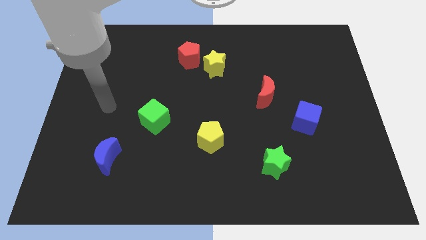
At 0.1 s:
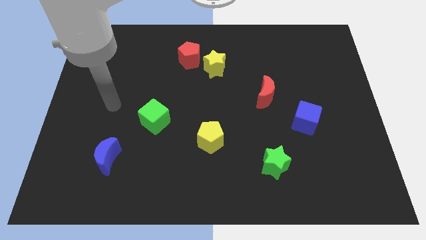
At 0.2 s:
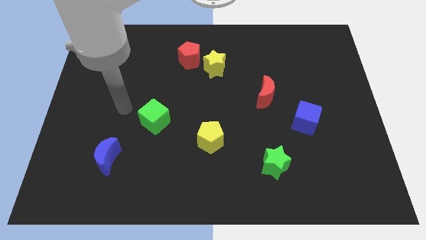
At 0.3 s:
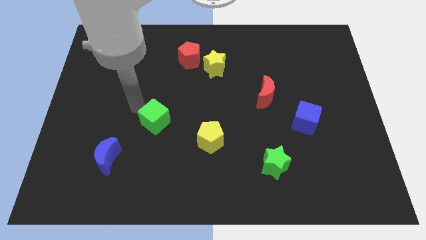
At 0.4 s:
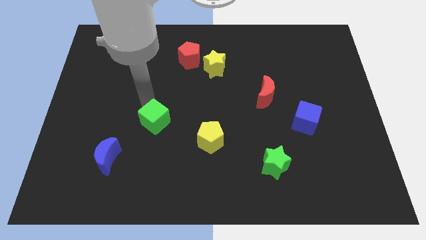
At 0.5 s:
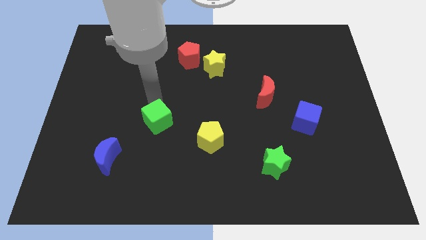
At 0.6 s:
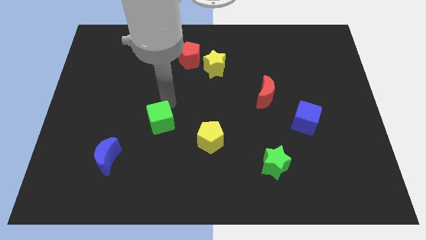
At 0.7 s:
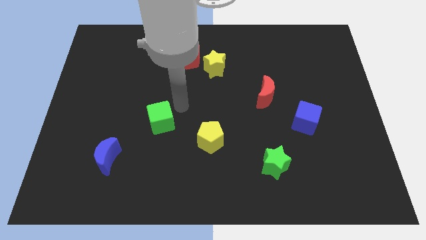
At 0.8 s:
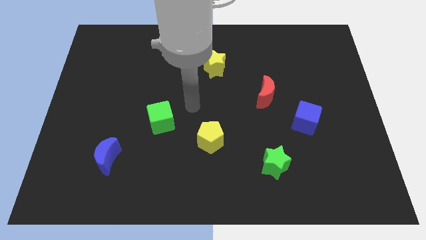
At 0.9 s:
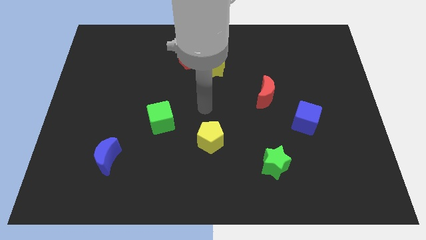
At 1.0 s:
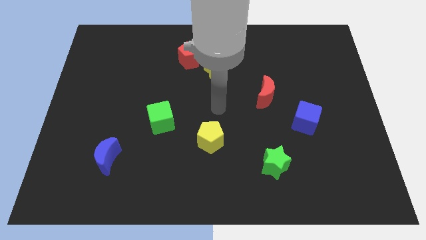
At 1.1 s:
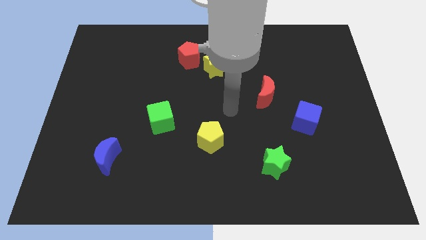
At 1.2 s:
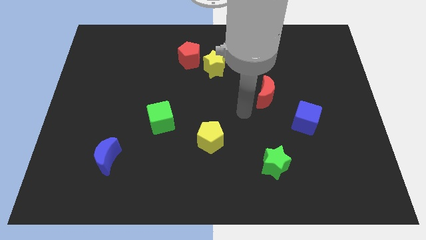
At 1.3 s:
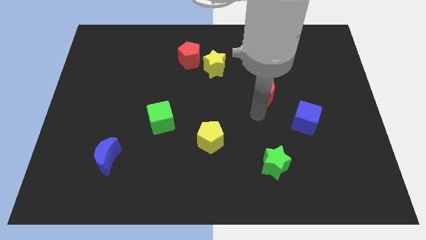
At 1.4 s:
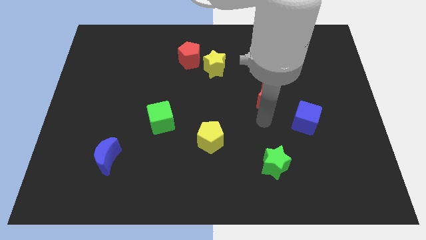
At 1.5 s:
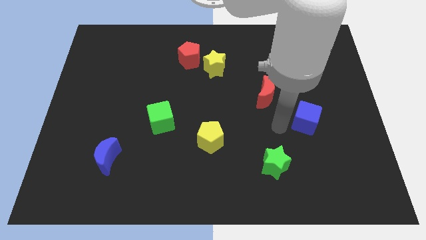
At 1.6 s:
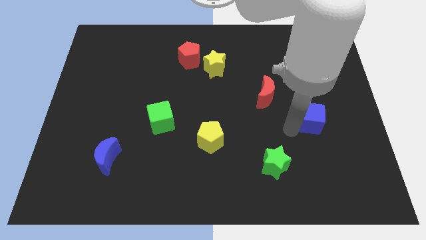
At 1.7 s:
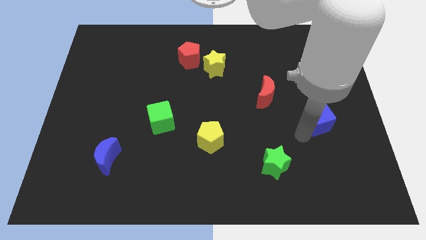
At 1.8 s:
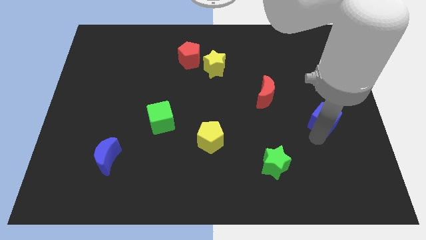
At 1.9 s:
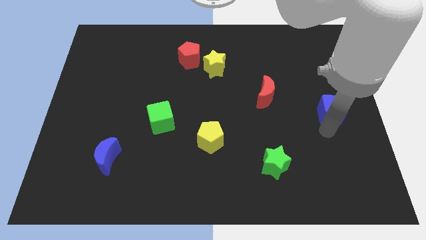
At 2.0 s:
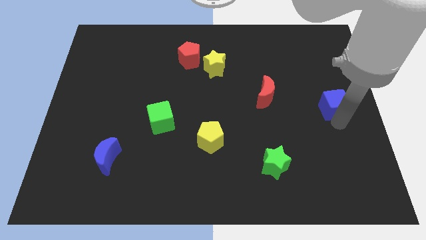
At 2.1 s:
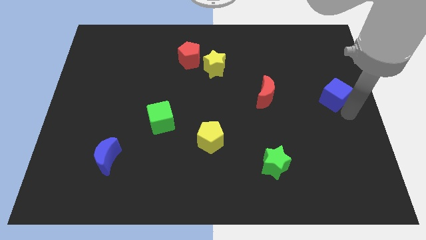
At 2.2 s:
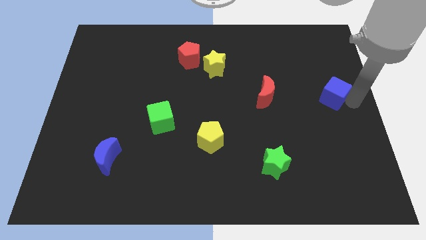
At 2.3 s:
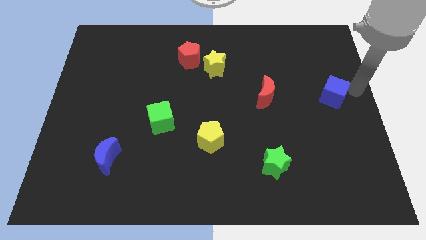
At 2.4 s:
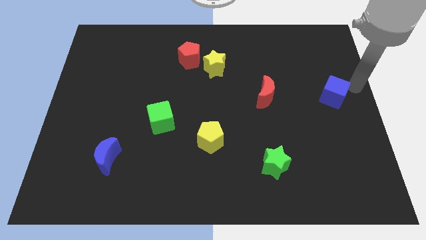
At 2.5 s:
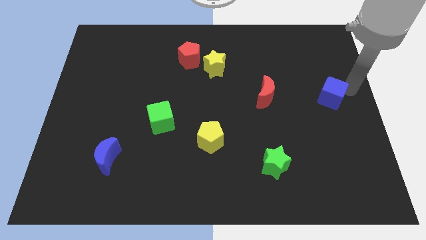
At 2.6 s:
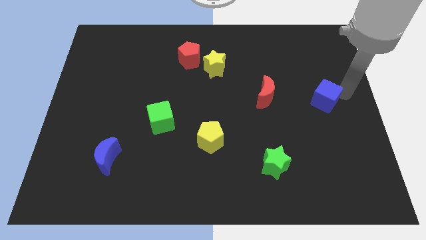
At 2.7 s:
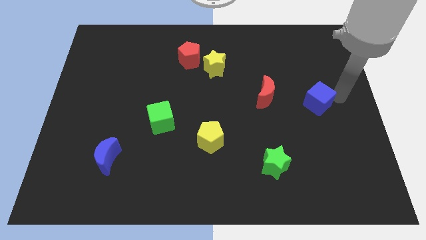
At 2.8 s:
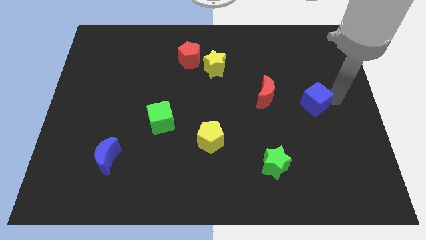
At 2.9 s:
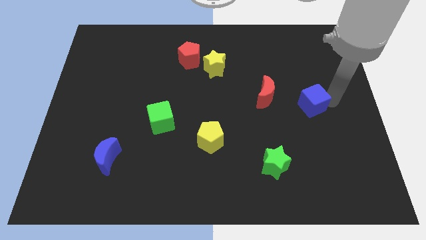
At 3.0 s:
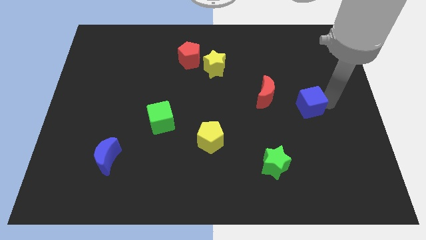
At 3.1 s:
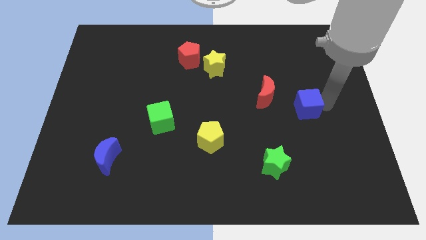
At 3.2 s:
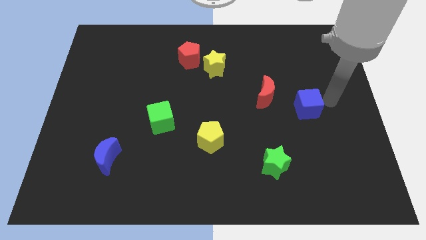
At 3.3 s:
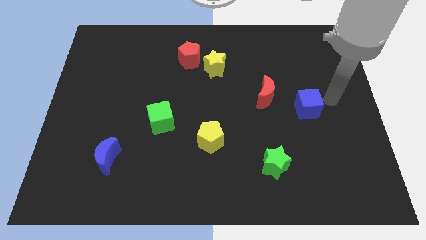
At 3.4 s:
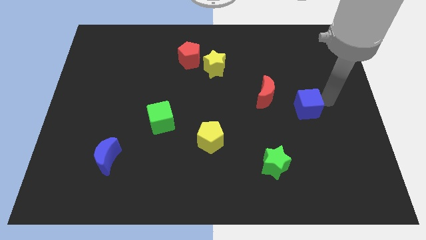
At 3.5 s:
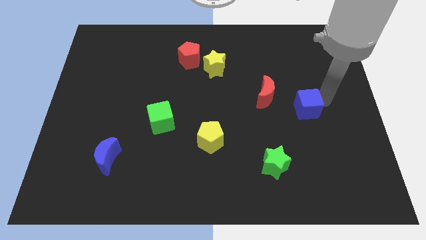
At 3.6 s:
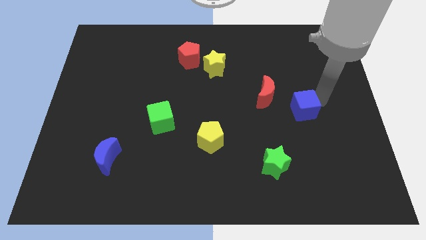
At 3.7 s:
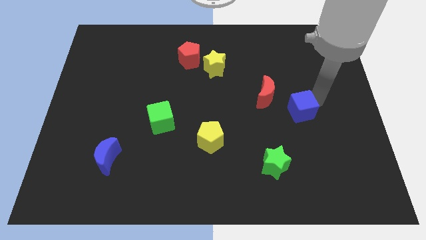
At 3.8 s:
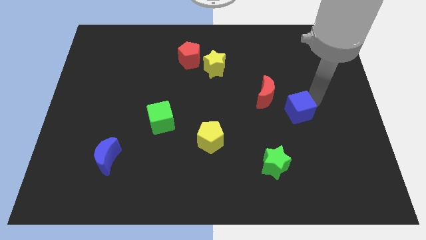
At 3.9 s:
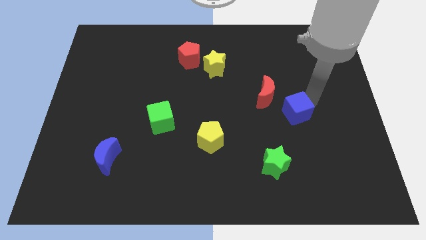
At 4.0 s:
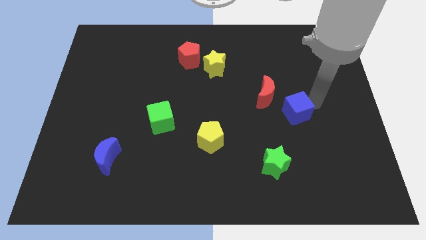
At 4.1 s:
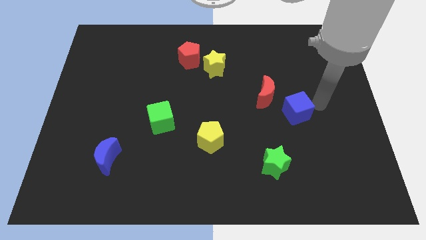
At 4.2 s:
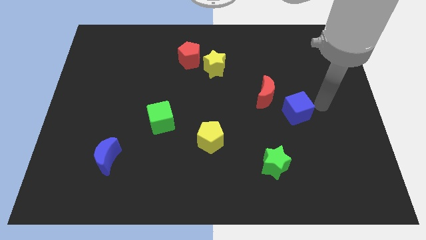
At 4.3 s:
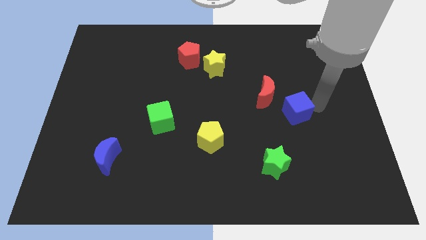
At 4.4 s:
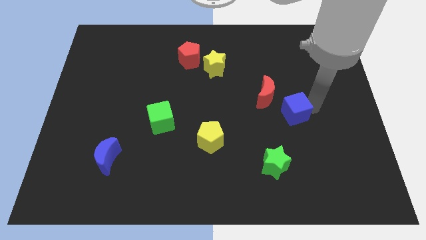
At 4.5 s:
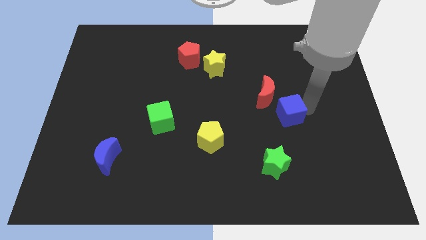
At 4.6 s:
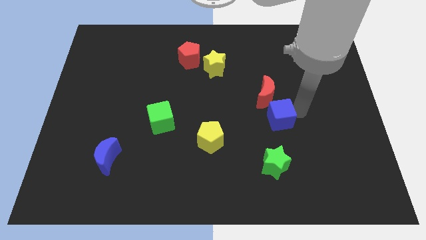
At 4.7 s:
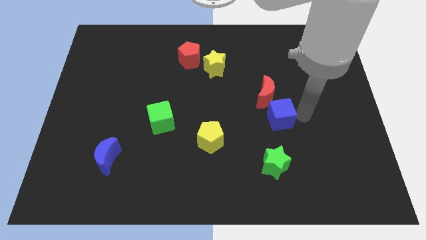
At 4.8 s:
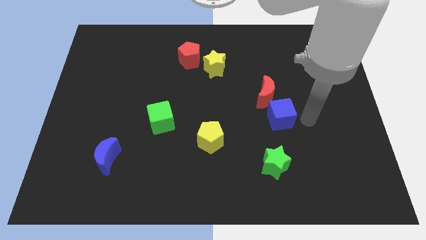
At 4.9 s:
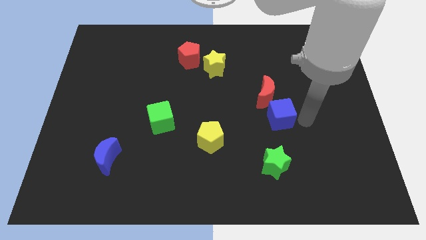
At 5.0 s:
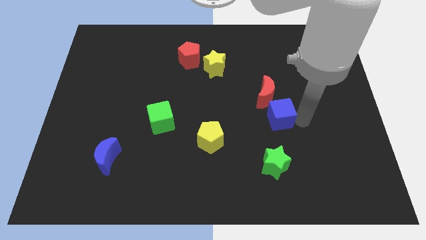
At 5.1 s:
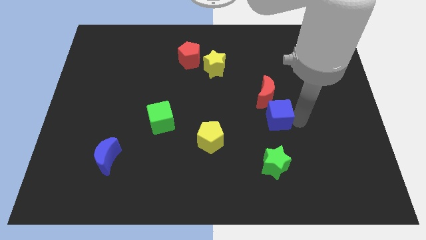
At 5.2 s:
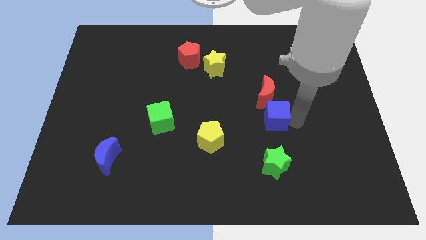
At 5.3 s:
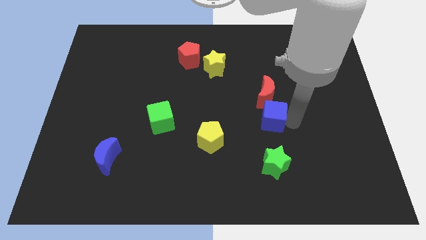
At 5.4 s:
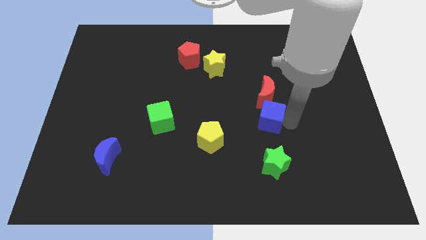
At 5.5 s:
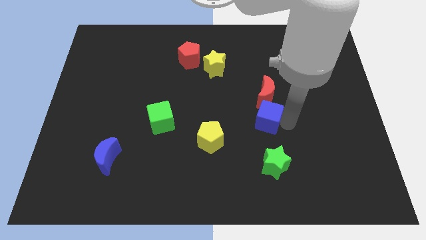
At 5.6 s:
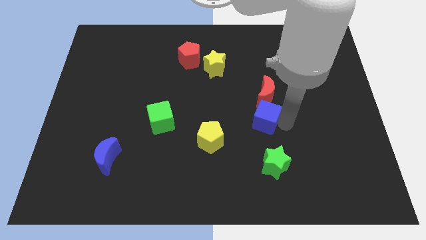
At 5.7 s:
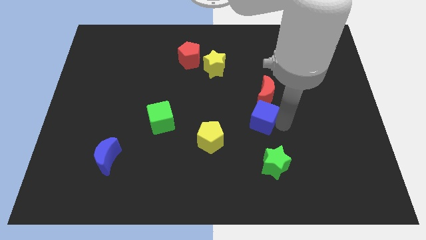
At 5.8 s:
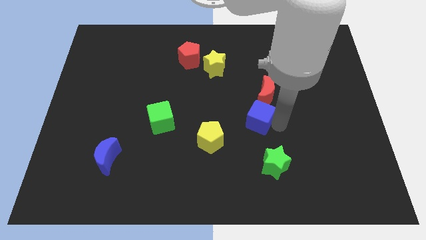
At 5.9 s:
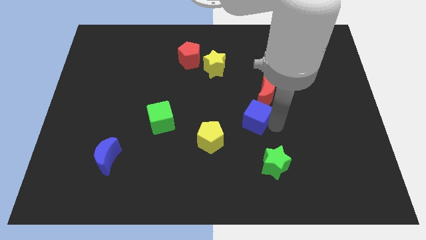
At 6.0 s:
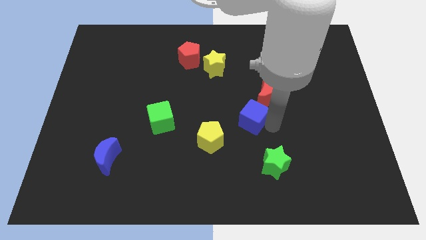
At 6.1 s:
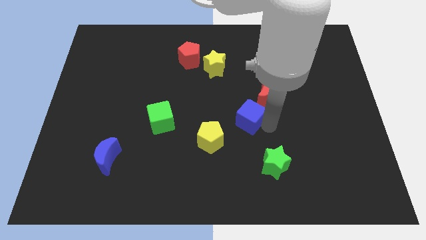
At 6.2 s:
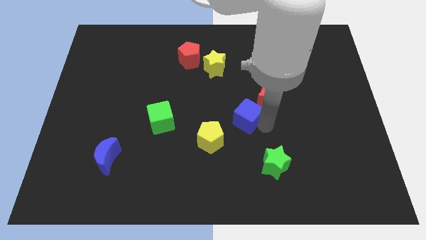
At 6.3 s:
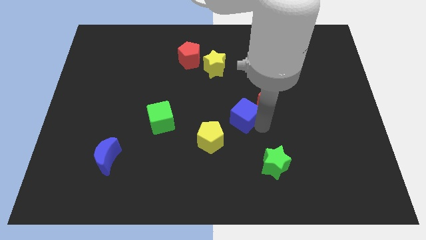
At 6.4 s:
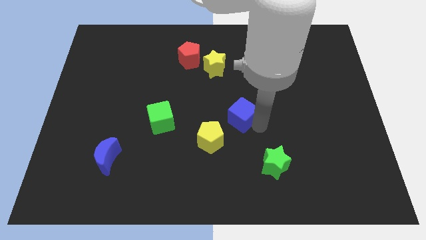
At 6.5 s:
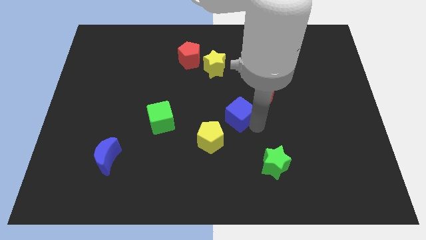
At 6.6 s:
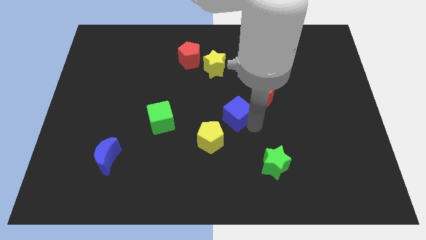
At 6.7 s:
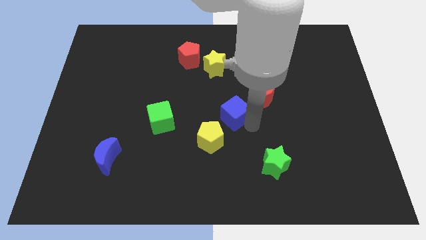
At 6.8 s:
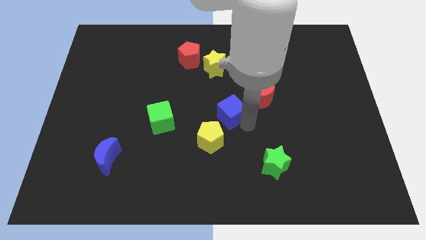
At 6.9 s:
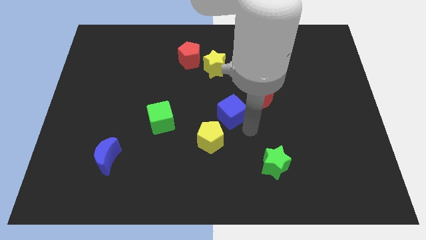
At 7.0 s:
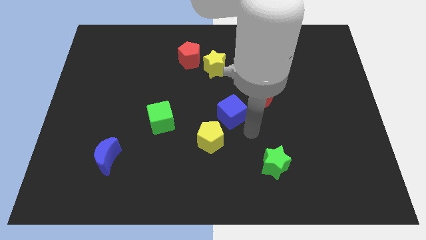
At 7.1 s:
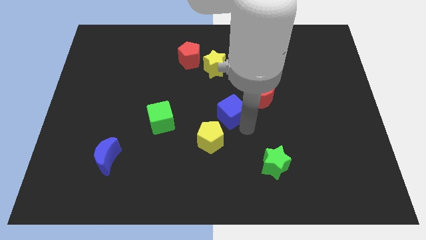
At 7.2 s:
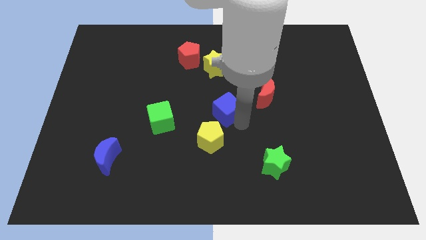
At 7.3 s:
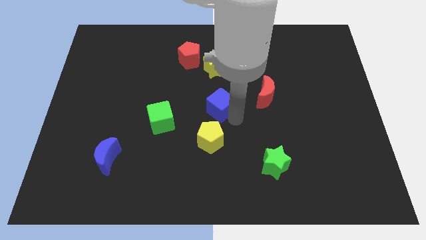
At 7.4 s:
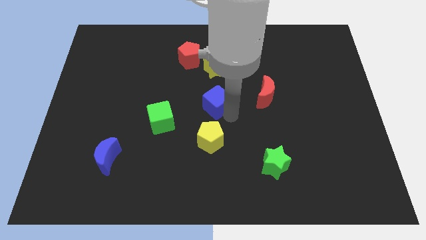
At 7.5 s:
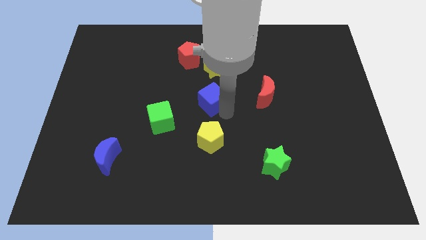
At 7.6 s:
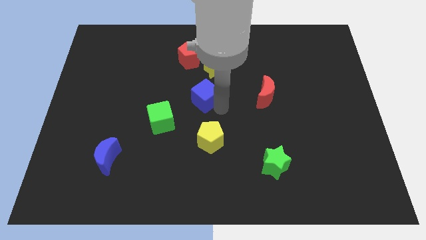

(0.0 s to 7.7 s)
push the blue cube to the bottom of the red pentagon
